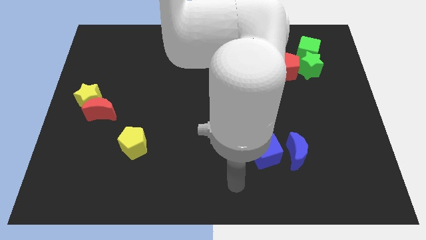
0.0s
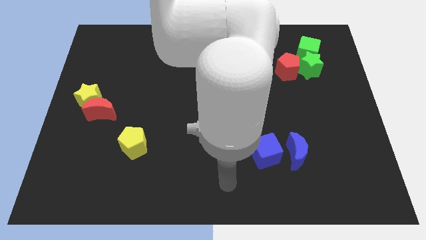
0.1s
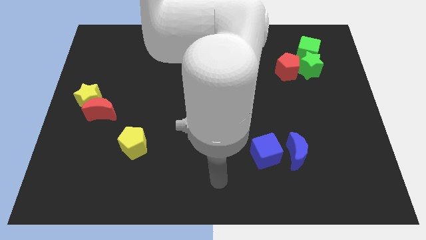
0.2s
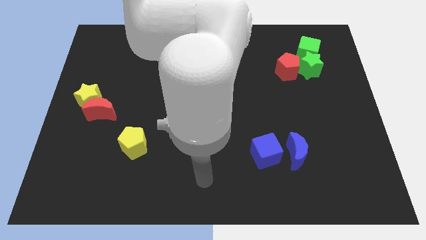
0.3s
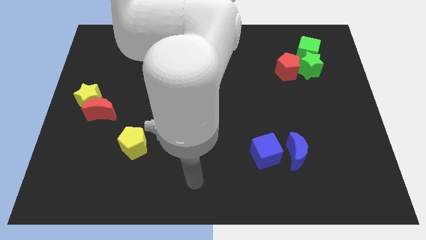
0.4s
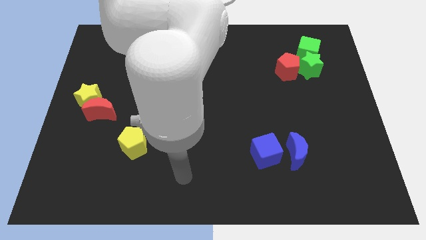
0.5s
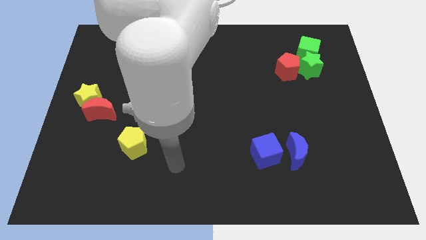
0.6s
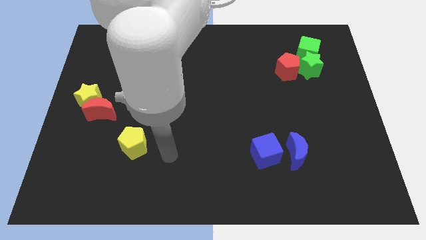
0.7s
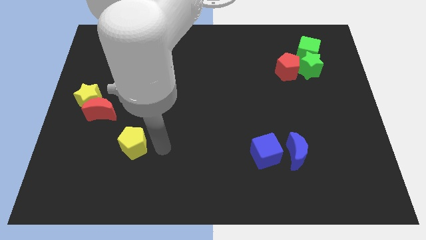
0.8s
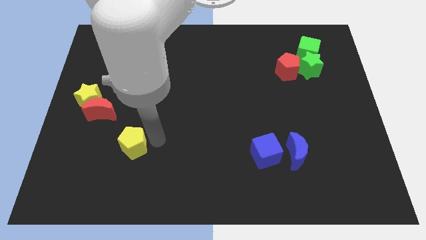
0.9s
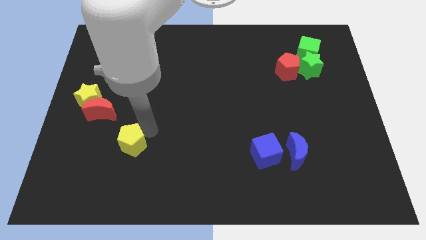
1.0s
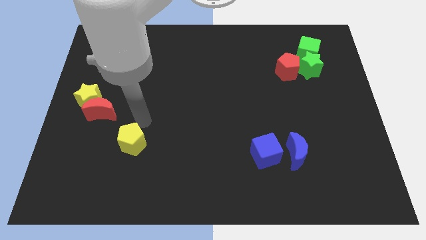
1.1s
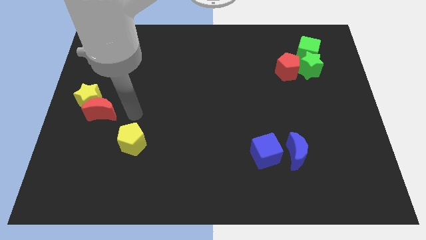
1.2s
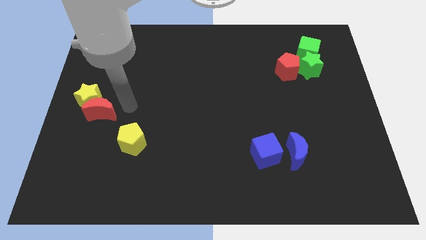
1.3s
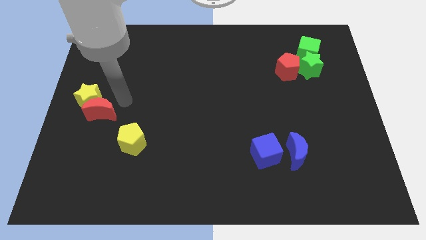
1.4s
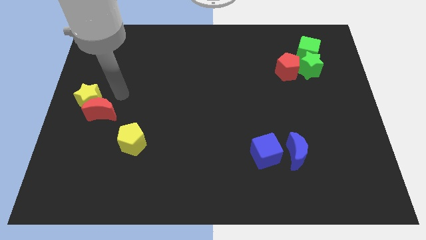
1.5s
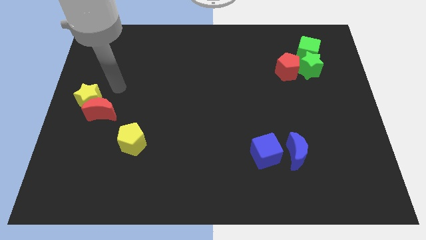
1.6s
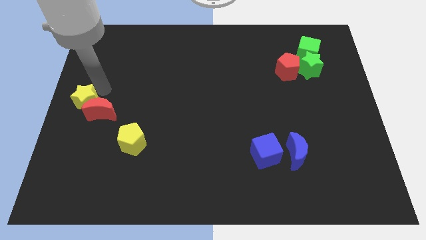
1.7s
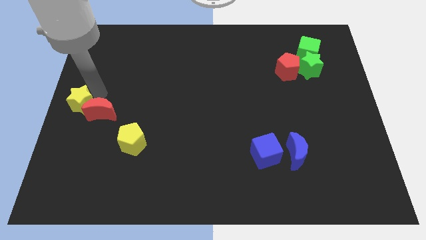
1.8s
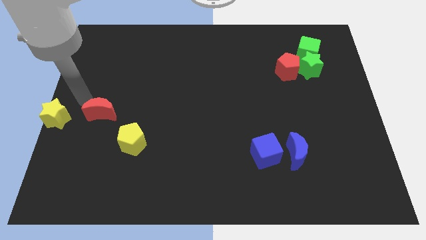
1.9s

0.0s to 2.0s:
separate the red moon from the yellow star

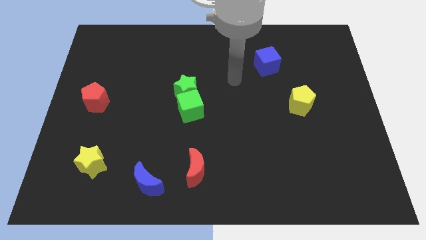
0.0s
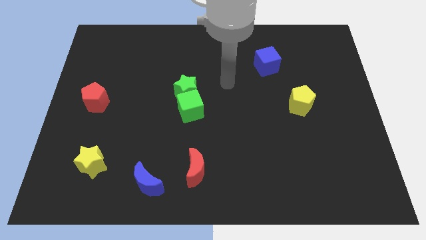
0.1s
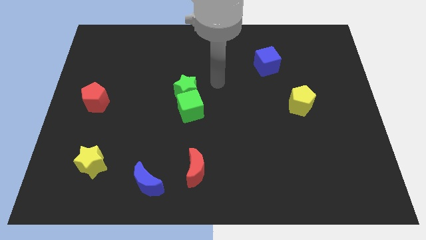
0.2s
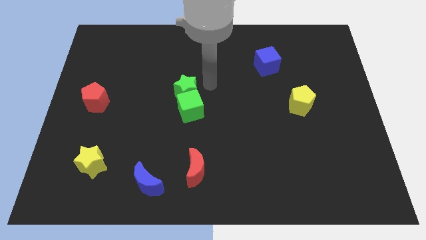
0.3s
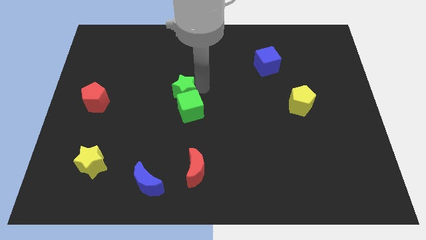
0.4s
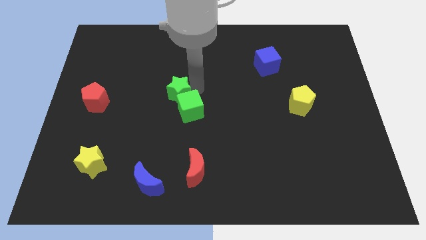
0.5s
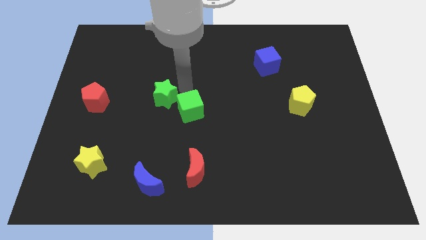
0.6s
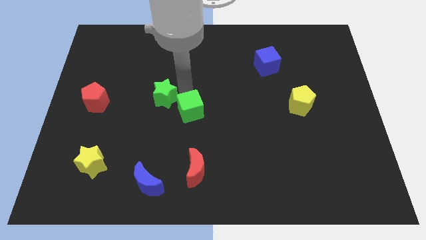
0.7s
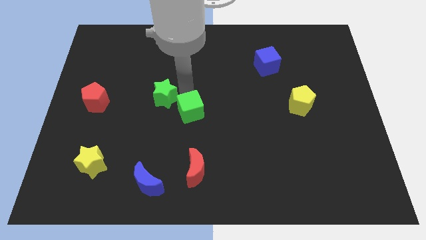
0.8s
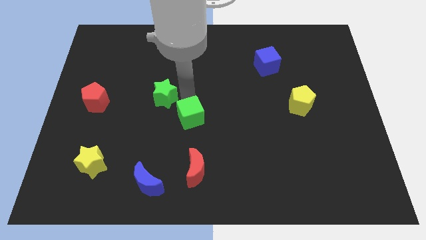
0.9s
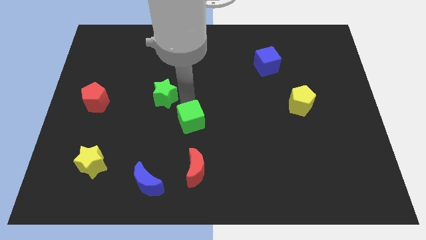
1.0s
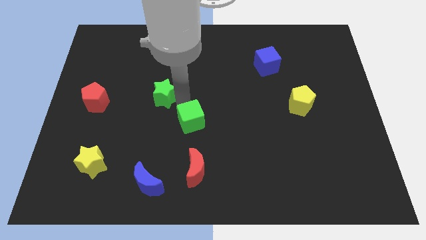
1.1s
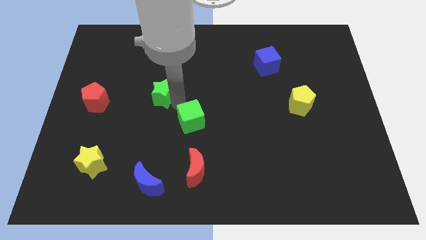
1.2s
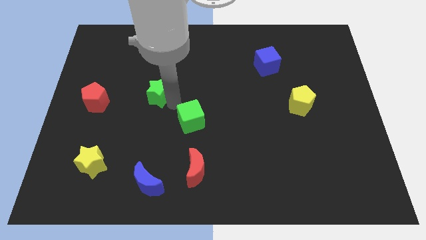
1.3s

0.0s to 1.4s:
move the green cube away from the green star

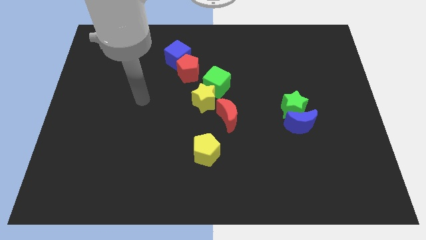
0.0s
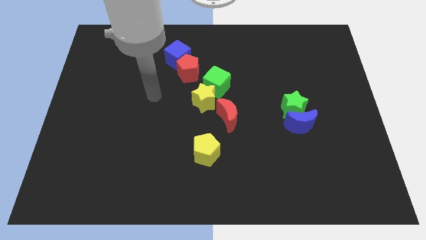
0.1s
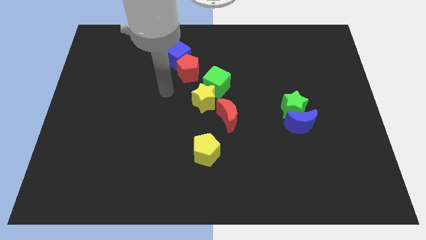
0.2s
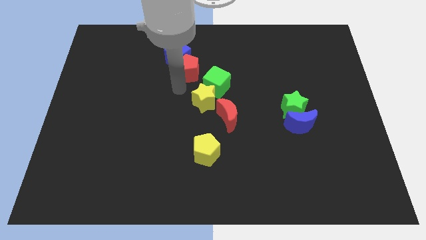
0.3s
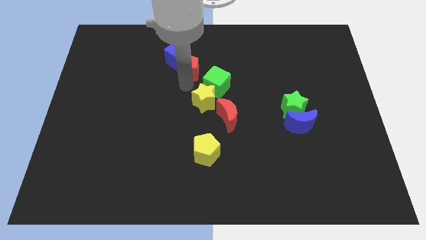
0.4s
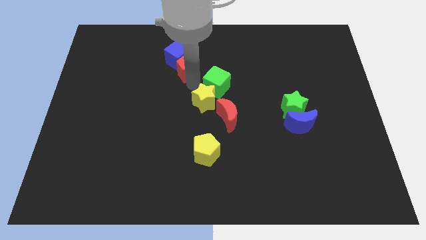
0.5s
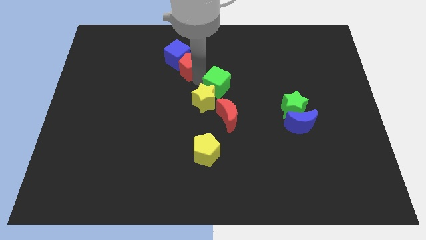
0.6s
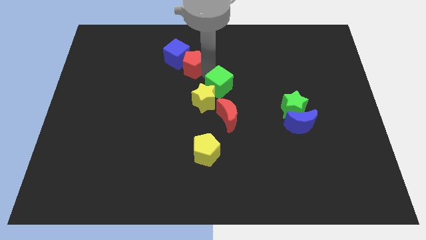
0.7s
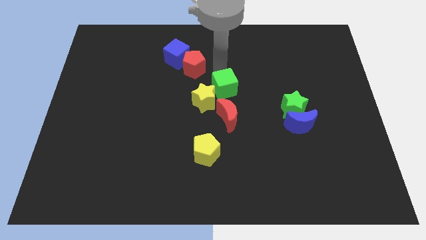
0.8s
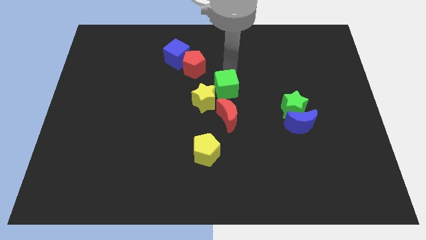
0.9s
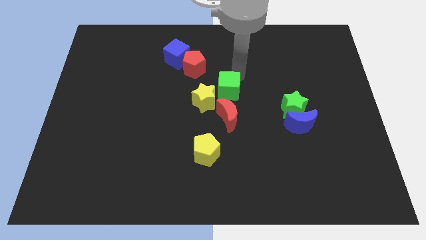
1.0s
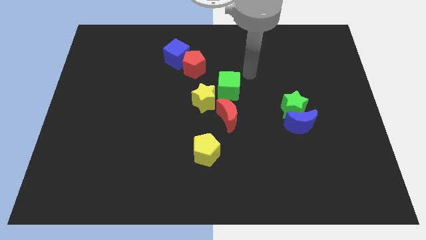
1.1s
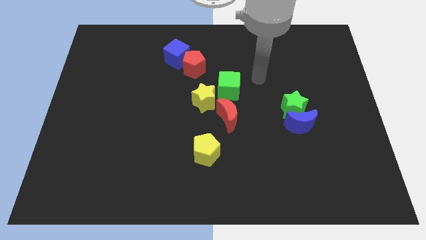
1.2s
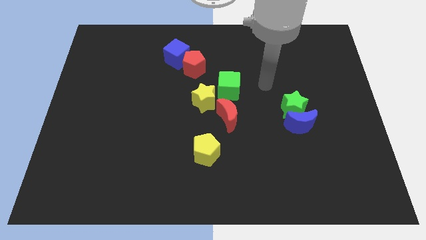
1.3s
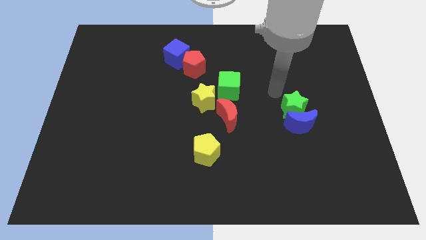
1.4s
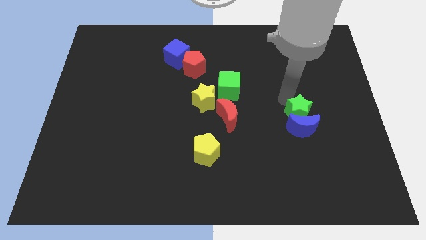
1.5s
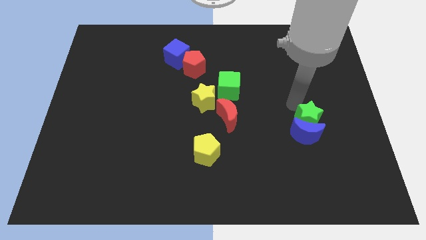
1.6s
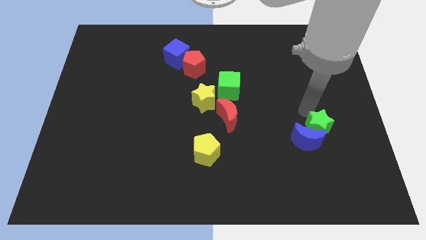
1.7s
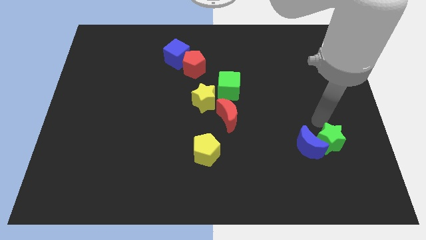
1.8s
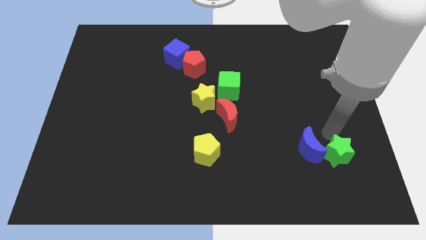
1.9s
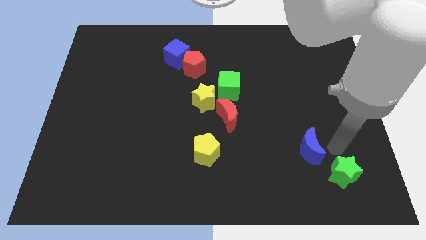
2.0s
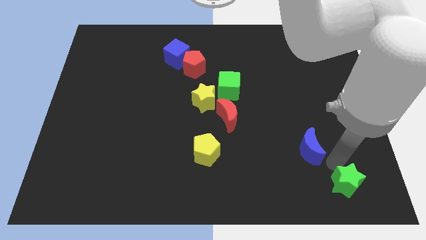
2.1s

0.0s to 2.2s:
separate the blue moon from the green star

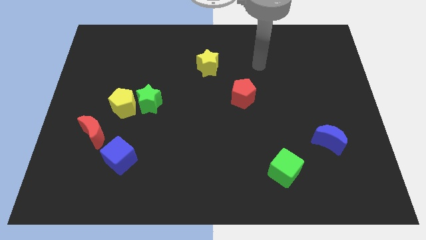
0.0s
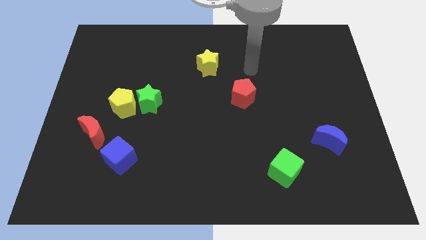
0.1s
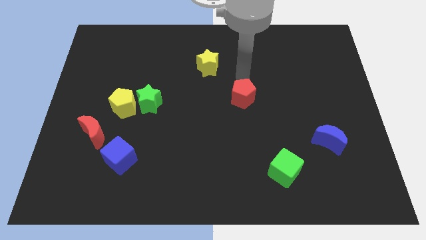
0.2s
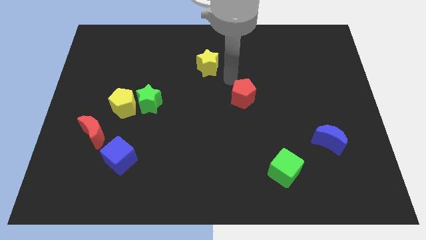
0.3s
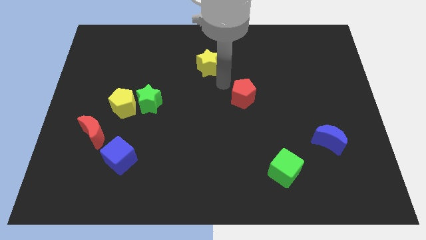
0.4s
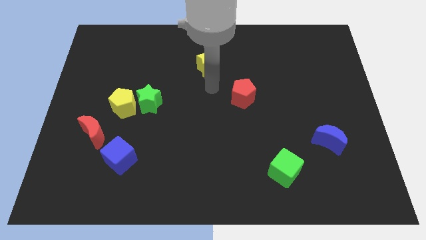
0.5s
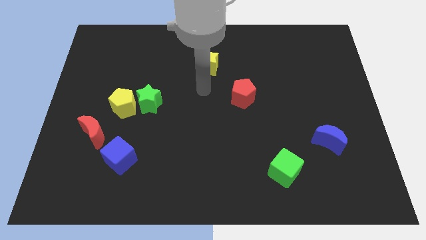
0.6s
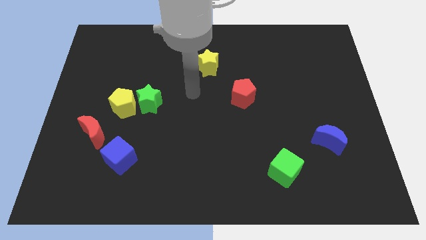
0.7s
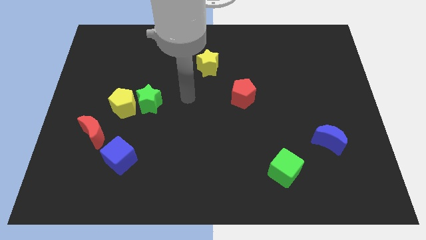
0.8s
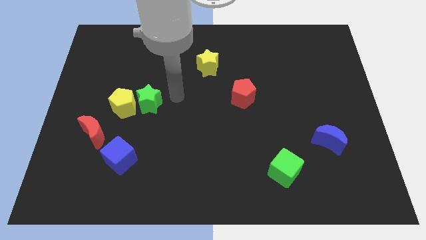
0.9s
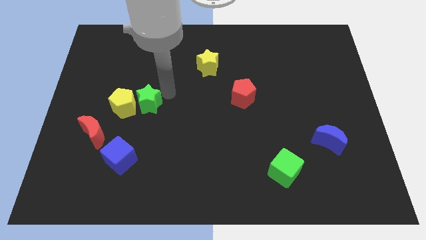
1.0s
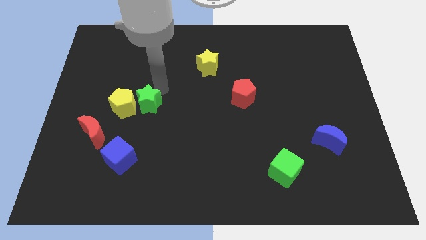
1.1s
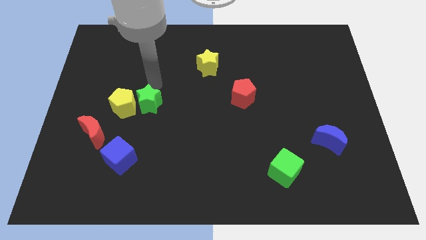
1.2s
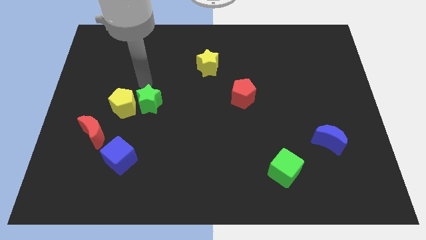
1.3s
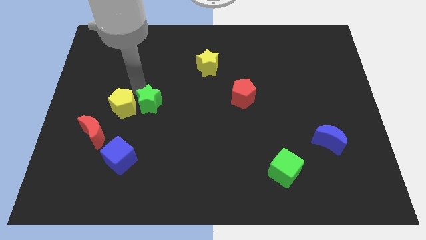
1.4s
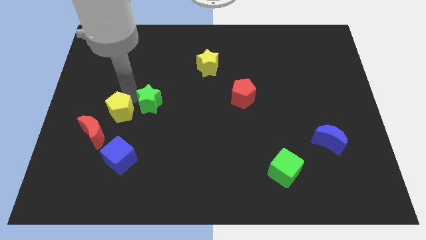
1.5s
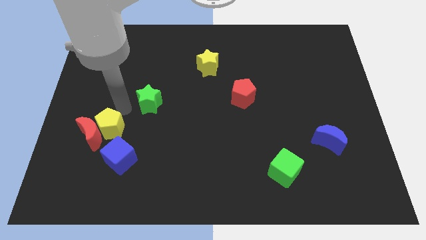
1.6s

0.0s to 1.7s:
pull the green star apart from the yellow pentagon

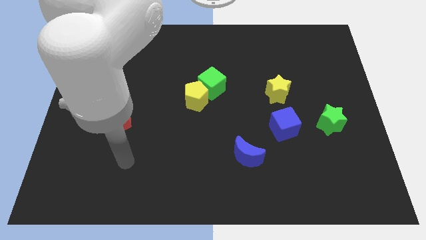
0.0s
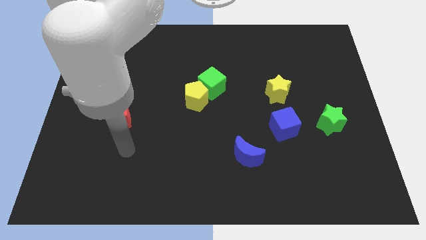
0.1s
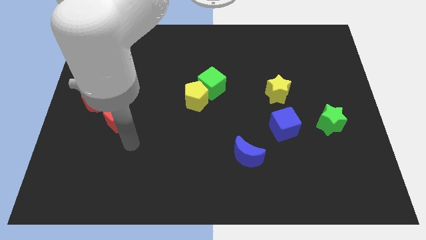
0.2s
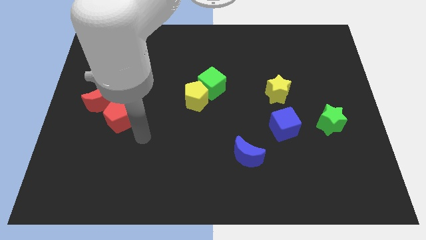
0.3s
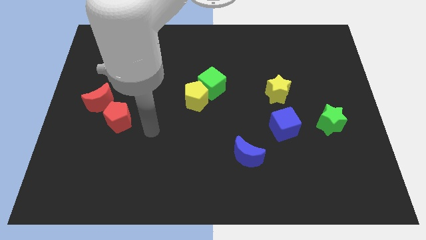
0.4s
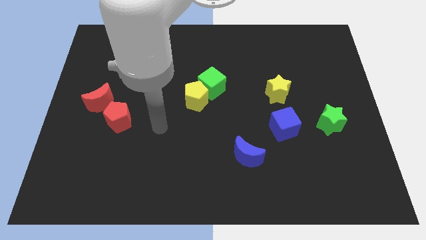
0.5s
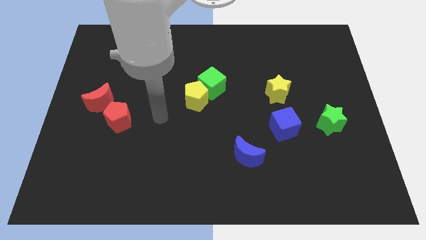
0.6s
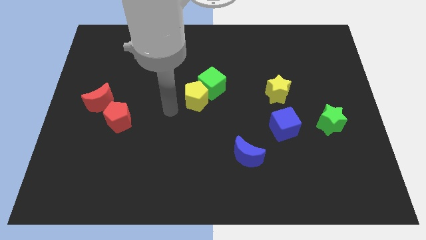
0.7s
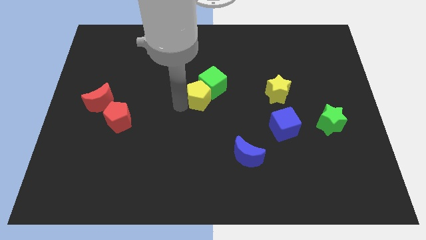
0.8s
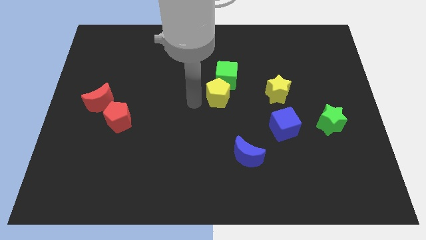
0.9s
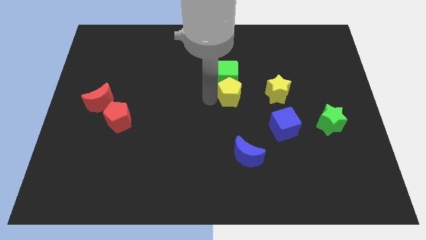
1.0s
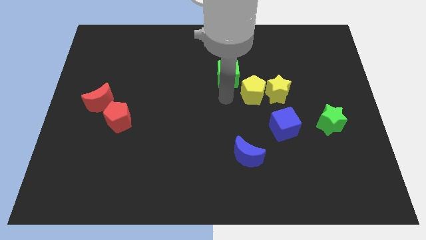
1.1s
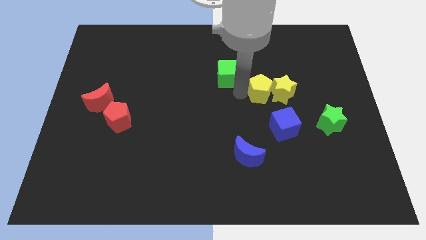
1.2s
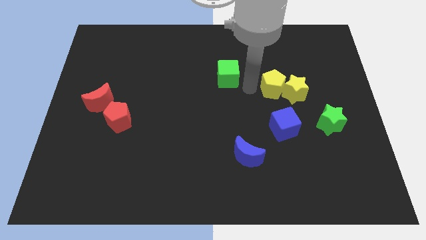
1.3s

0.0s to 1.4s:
separate the green cube from the yellow pentagon

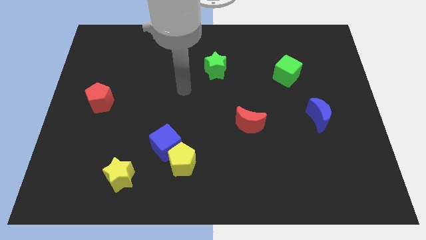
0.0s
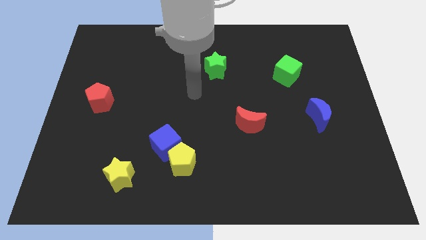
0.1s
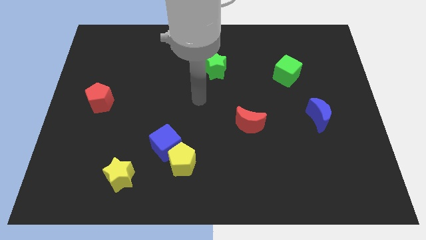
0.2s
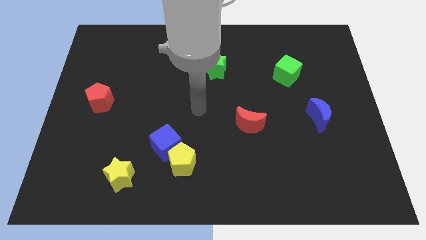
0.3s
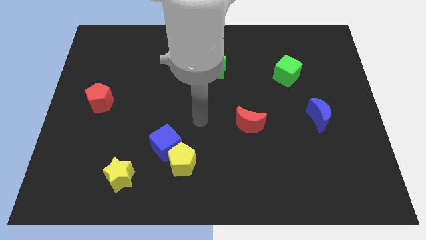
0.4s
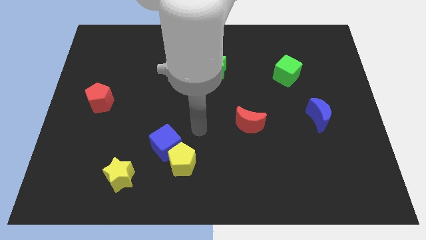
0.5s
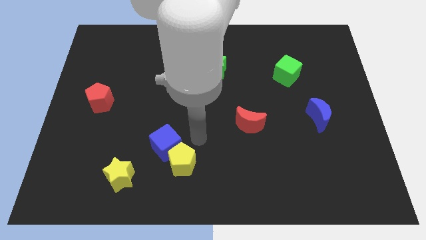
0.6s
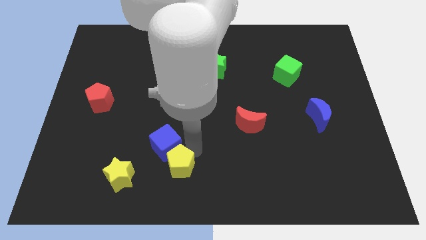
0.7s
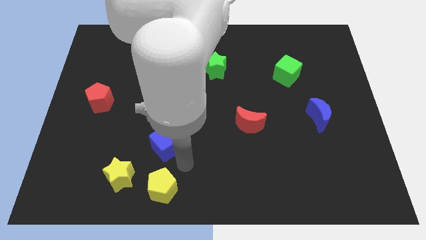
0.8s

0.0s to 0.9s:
pull the blue cube apart from the yellow pentagon
